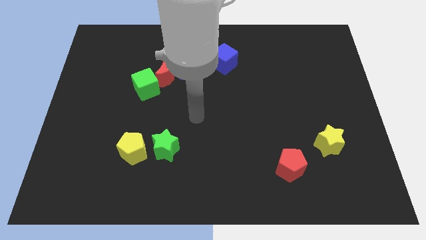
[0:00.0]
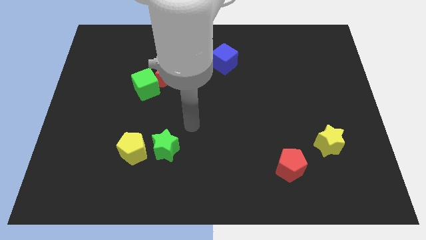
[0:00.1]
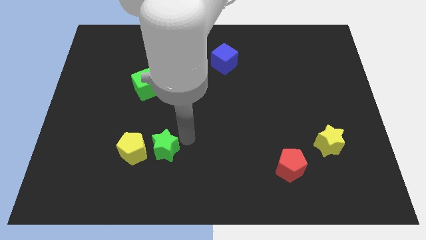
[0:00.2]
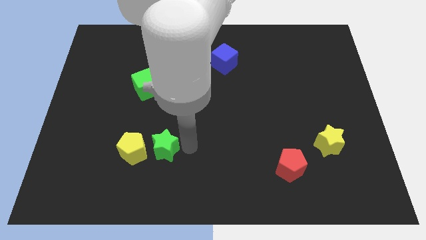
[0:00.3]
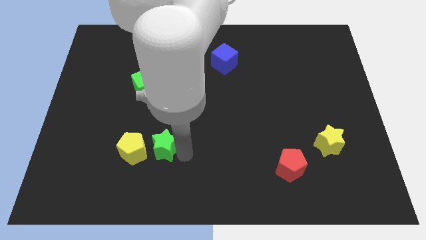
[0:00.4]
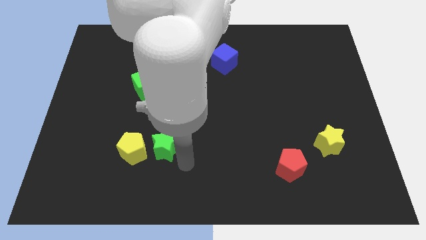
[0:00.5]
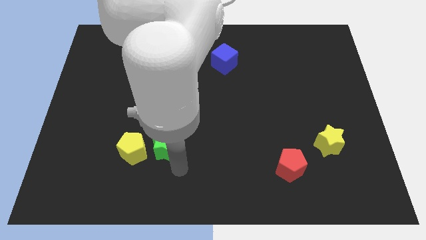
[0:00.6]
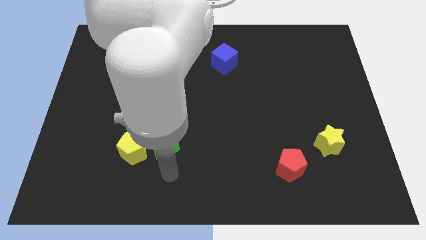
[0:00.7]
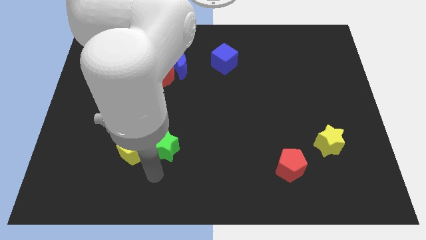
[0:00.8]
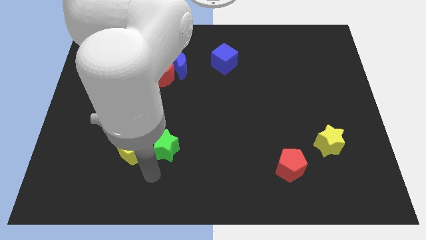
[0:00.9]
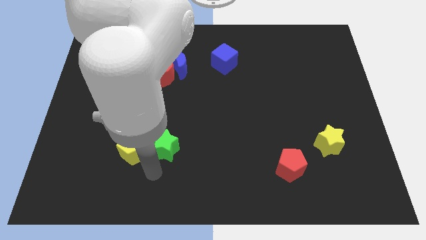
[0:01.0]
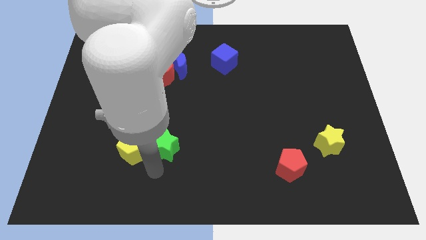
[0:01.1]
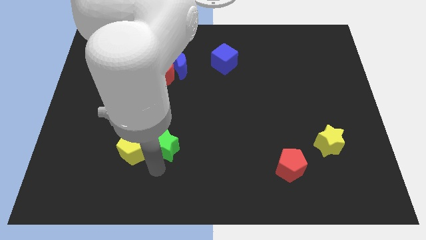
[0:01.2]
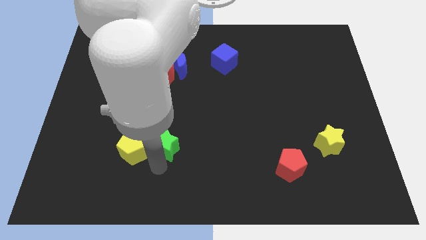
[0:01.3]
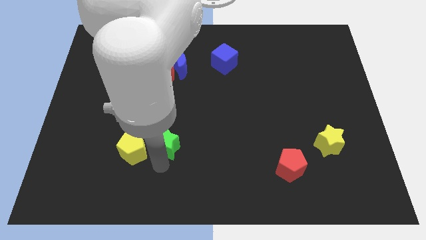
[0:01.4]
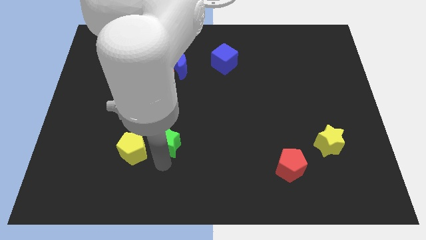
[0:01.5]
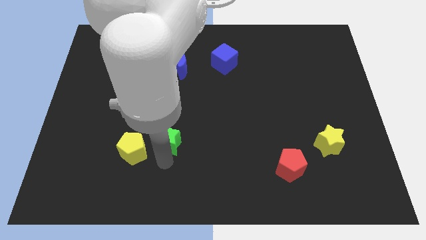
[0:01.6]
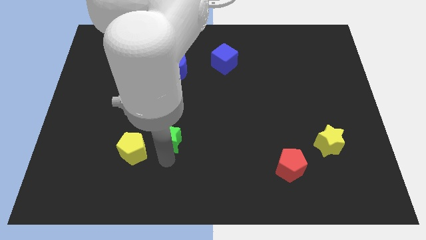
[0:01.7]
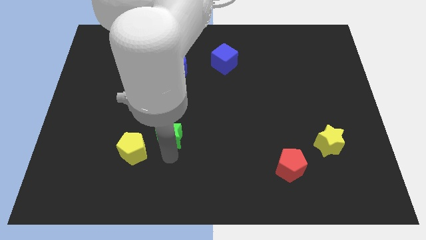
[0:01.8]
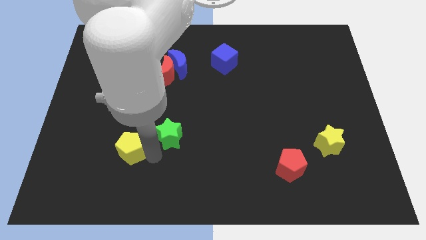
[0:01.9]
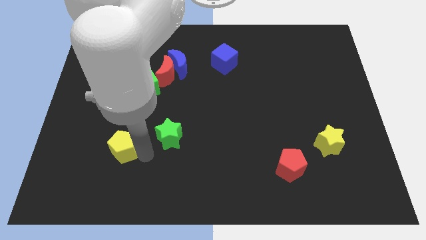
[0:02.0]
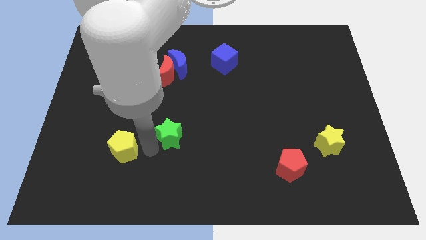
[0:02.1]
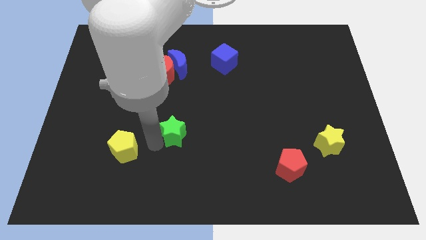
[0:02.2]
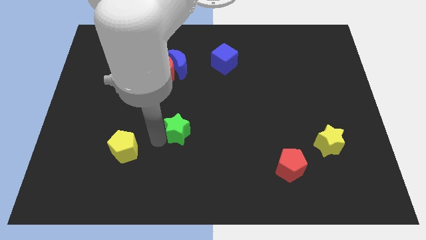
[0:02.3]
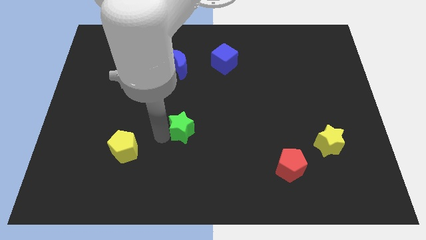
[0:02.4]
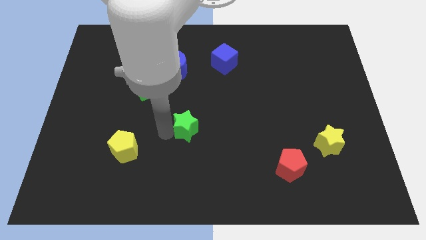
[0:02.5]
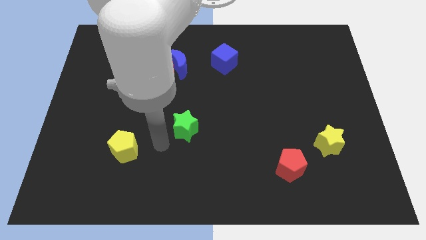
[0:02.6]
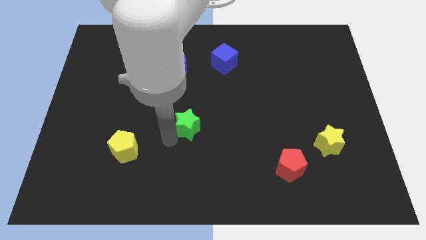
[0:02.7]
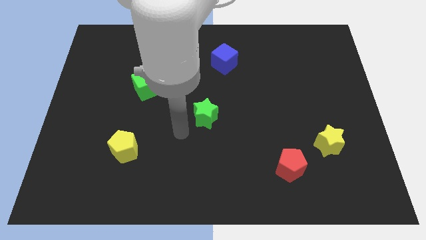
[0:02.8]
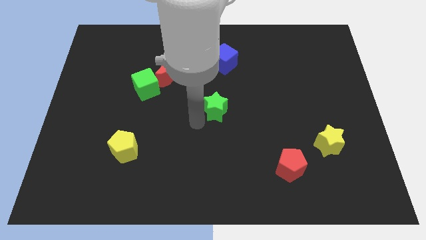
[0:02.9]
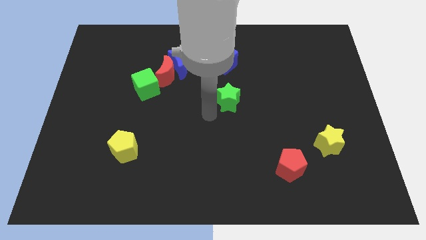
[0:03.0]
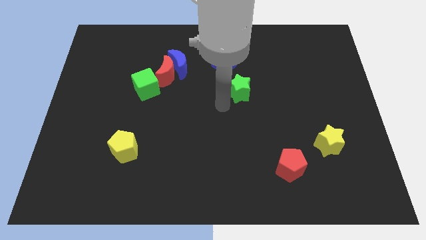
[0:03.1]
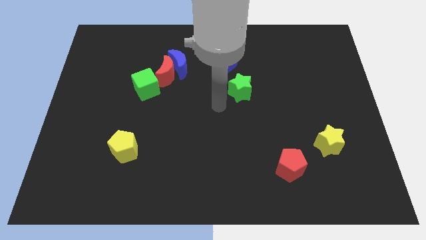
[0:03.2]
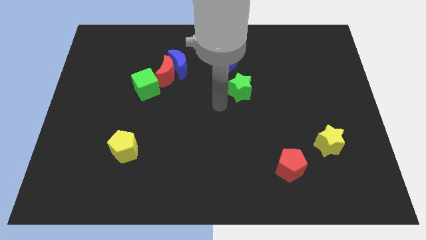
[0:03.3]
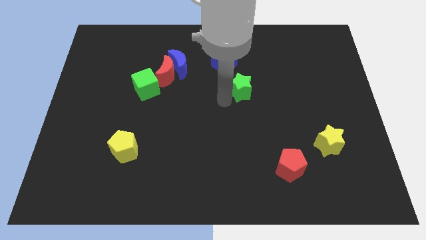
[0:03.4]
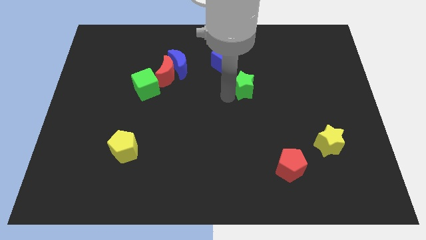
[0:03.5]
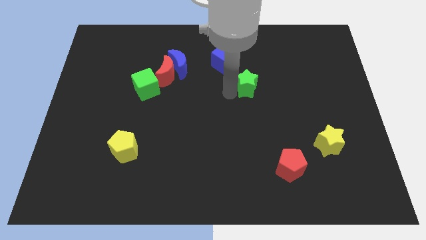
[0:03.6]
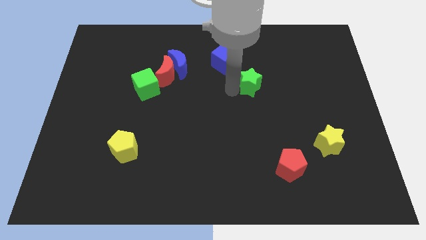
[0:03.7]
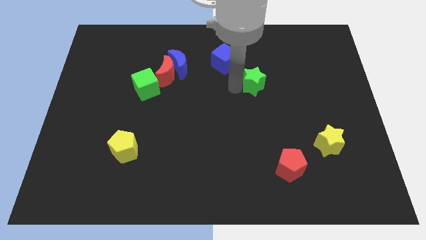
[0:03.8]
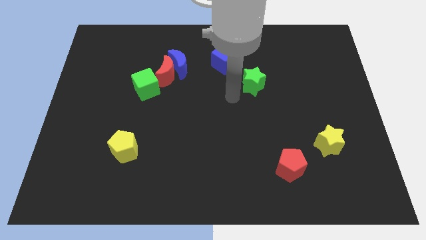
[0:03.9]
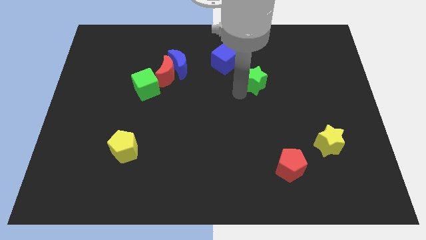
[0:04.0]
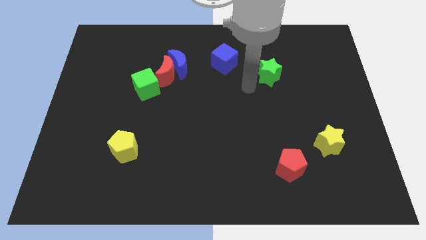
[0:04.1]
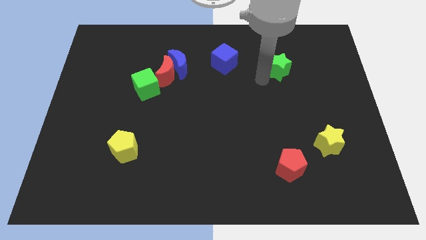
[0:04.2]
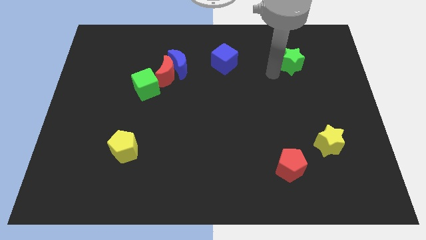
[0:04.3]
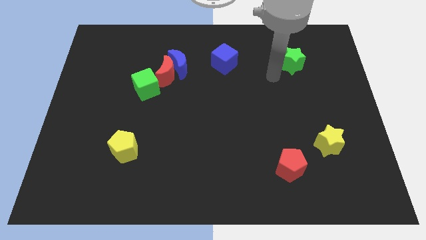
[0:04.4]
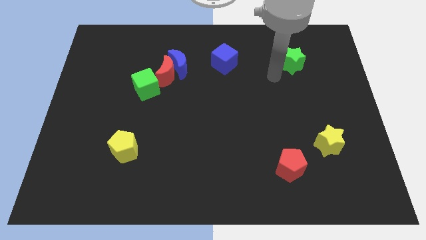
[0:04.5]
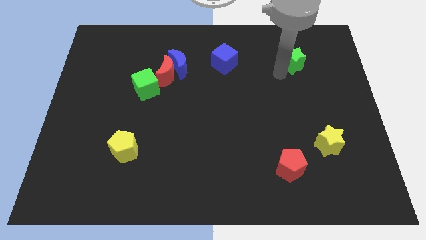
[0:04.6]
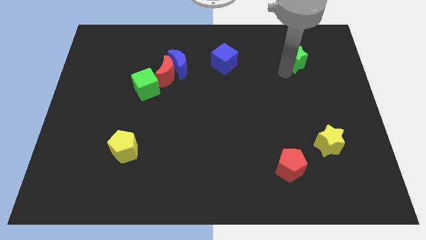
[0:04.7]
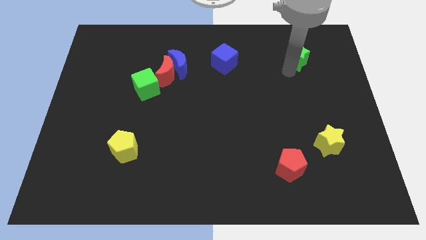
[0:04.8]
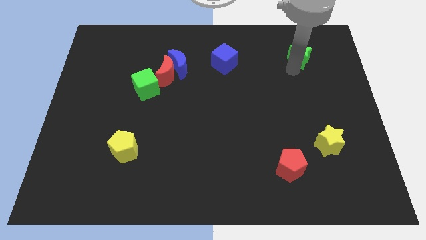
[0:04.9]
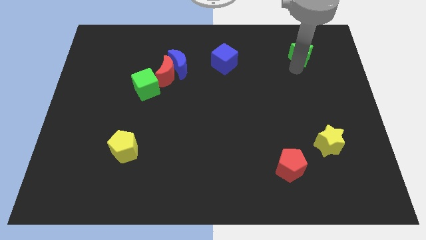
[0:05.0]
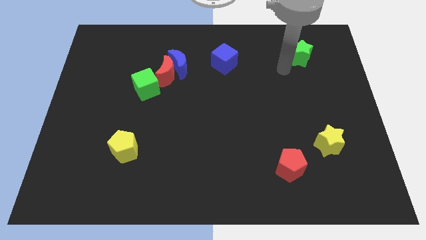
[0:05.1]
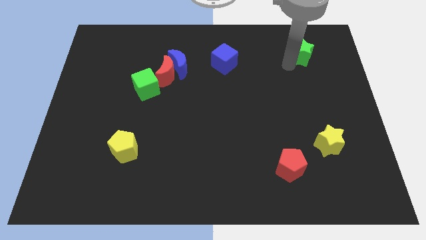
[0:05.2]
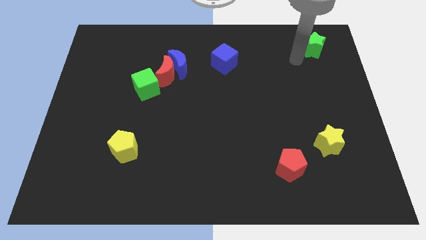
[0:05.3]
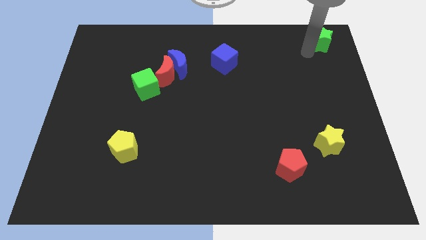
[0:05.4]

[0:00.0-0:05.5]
move the green star to the top right of the board
